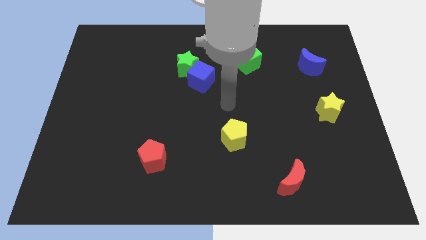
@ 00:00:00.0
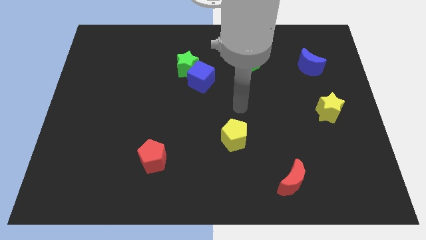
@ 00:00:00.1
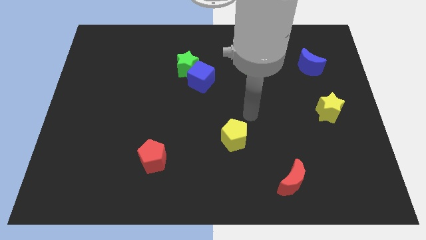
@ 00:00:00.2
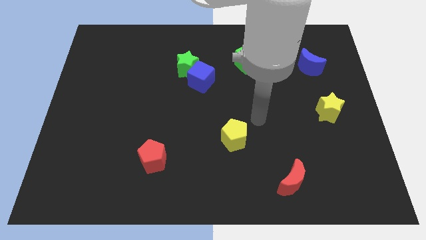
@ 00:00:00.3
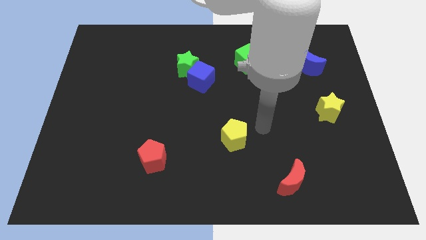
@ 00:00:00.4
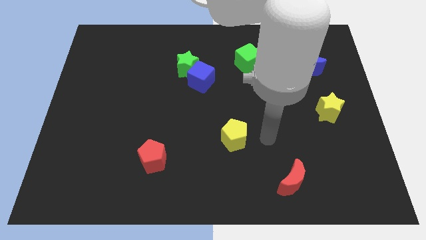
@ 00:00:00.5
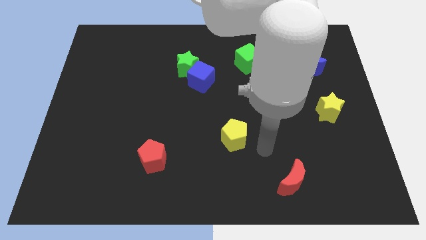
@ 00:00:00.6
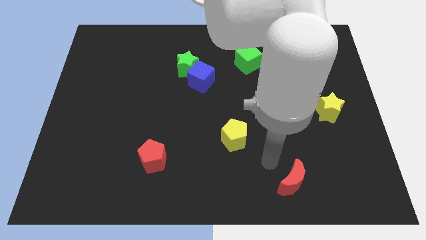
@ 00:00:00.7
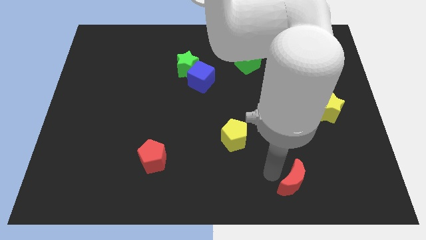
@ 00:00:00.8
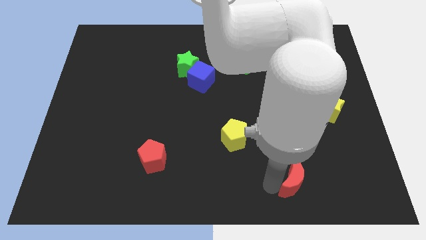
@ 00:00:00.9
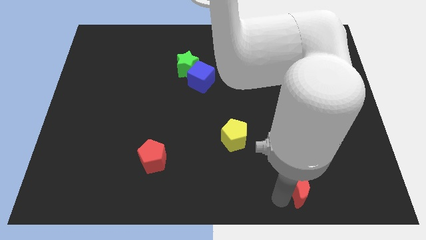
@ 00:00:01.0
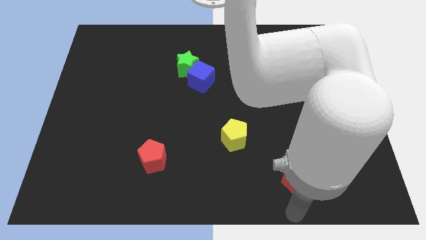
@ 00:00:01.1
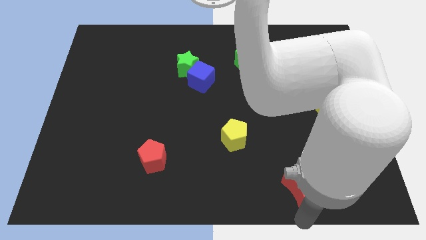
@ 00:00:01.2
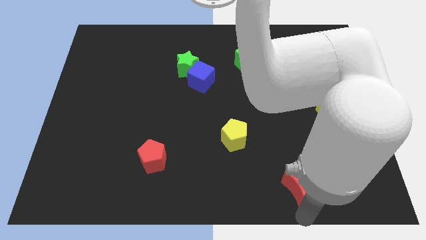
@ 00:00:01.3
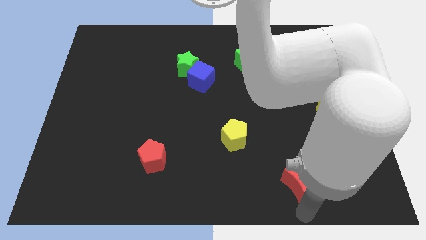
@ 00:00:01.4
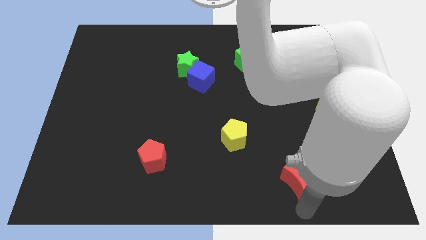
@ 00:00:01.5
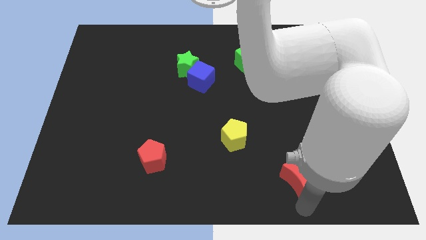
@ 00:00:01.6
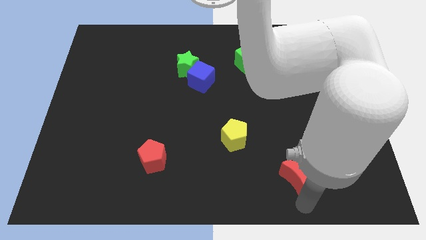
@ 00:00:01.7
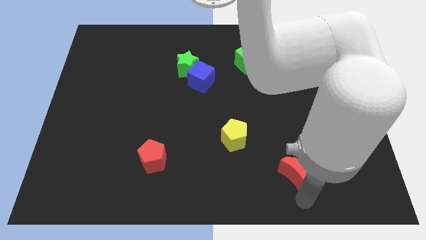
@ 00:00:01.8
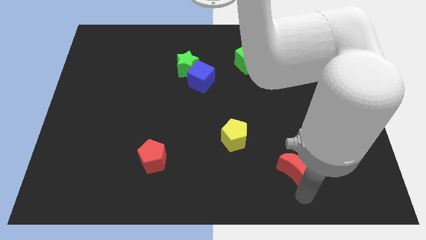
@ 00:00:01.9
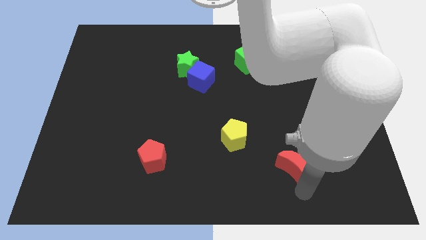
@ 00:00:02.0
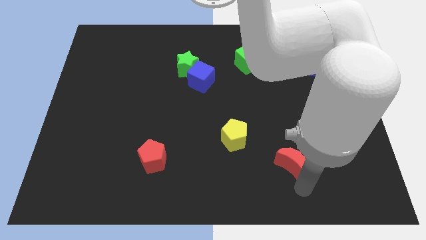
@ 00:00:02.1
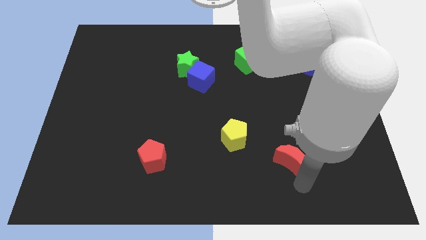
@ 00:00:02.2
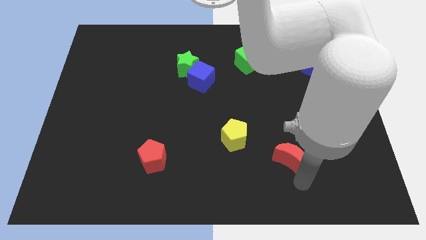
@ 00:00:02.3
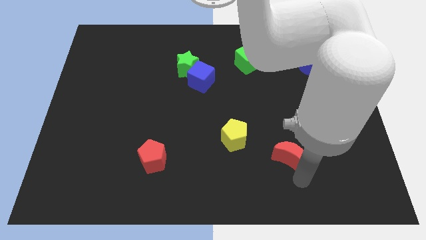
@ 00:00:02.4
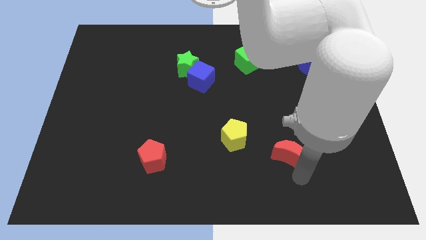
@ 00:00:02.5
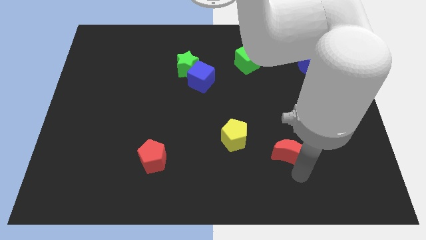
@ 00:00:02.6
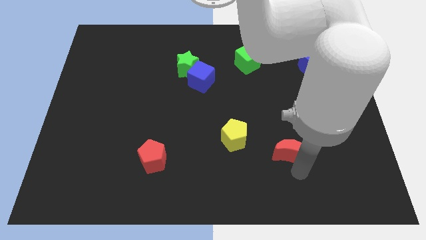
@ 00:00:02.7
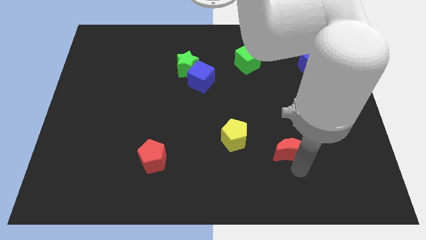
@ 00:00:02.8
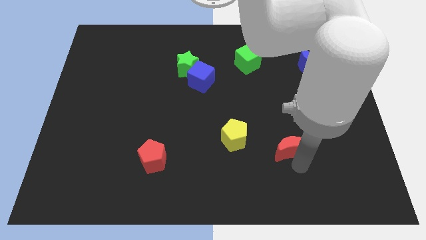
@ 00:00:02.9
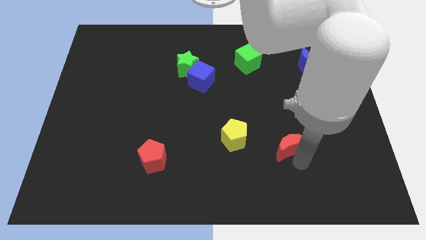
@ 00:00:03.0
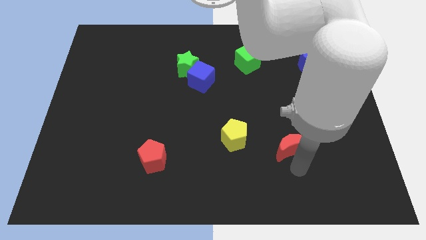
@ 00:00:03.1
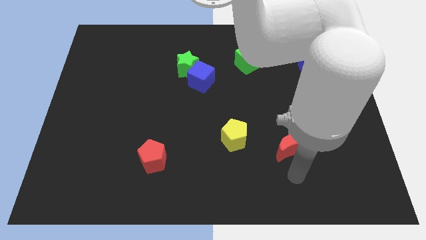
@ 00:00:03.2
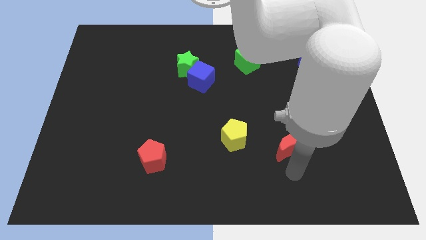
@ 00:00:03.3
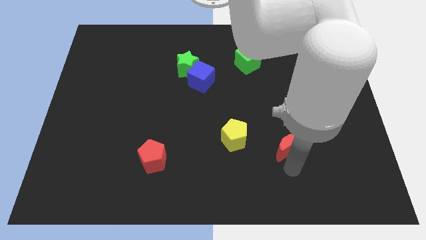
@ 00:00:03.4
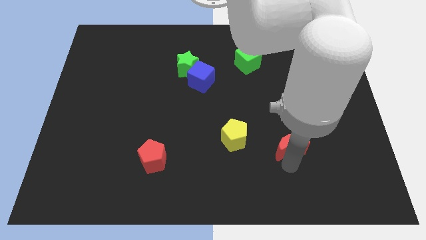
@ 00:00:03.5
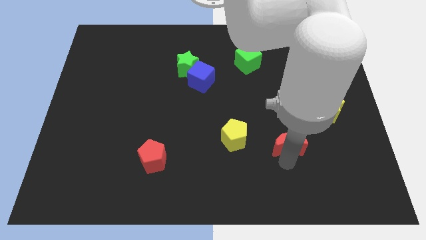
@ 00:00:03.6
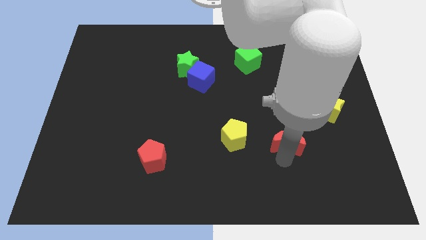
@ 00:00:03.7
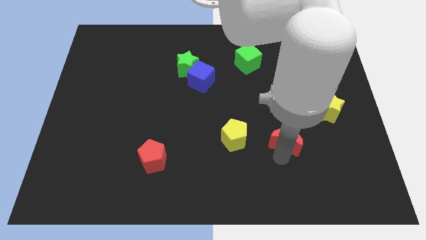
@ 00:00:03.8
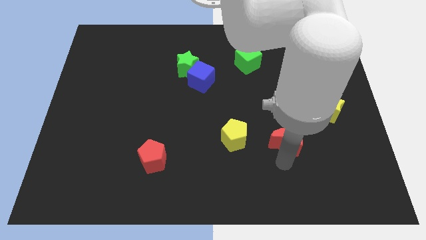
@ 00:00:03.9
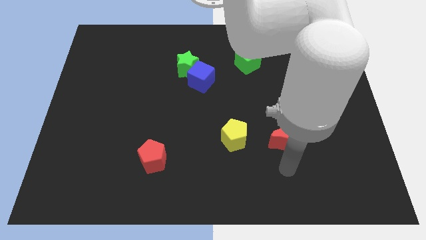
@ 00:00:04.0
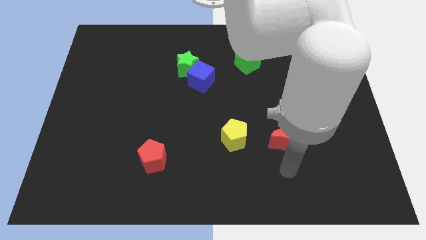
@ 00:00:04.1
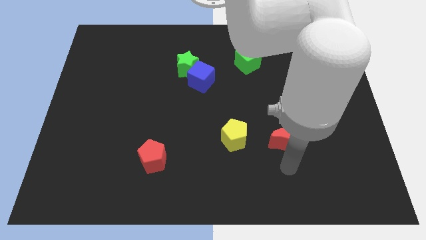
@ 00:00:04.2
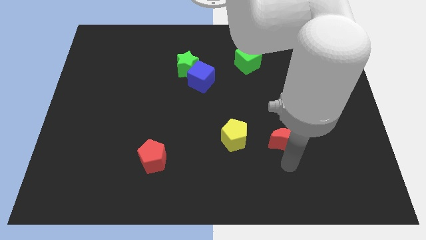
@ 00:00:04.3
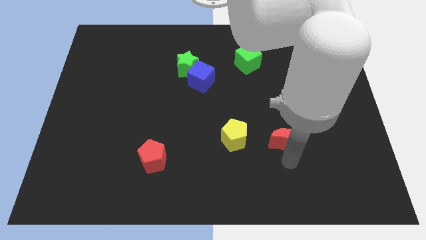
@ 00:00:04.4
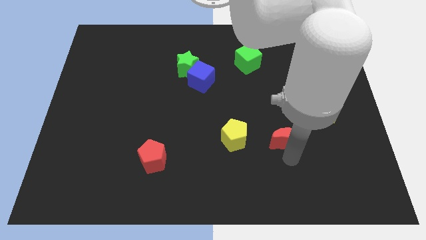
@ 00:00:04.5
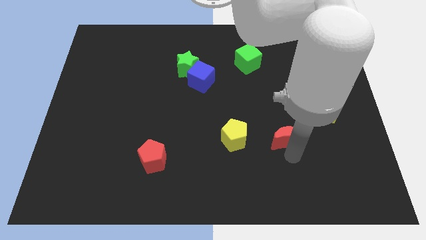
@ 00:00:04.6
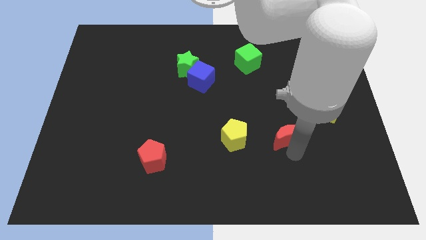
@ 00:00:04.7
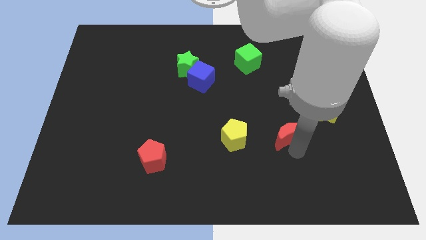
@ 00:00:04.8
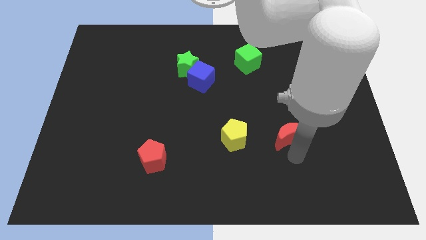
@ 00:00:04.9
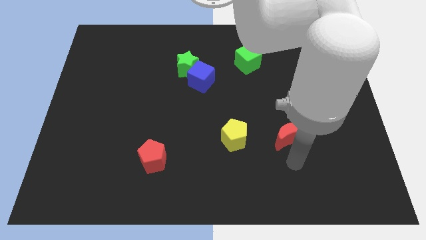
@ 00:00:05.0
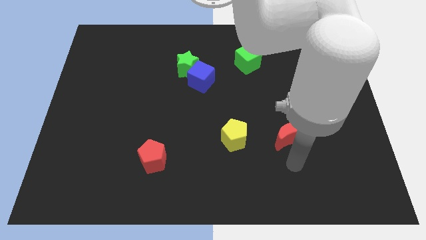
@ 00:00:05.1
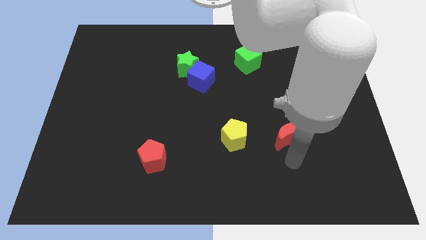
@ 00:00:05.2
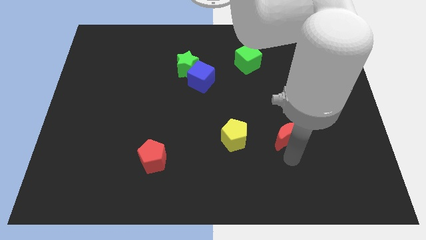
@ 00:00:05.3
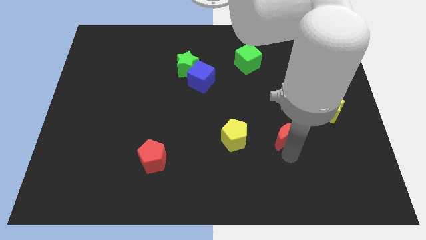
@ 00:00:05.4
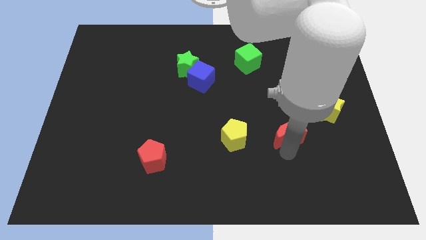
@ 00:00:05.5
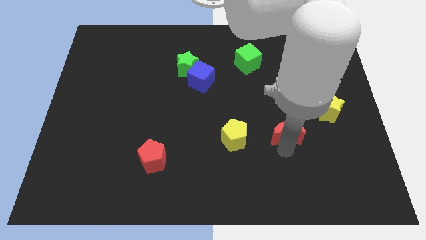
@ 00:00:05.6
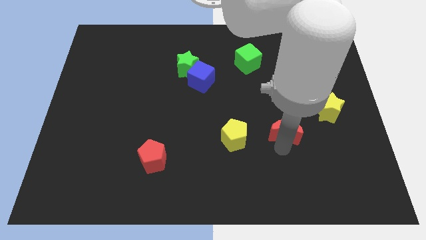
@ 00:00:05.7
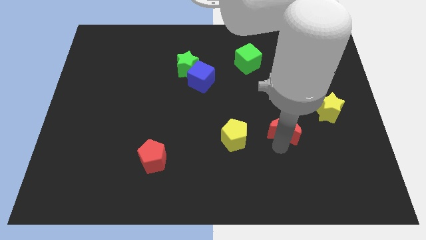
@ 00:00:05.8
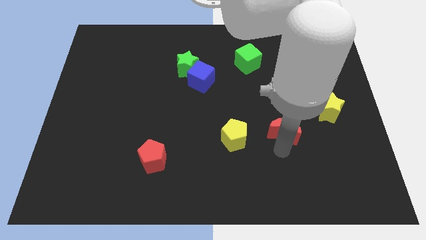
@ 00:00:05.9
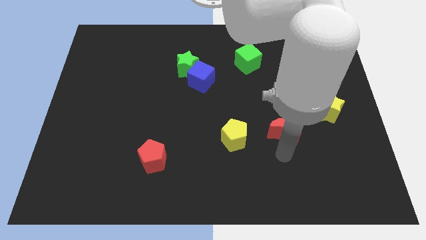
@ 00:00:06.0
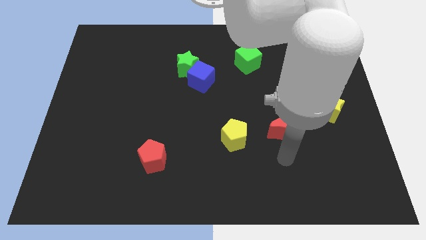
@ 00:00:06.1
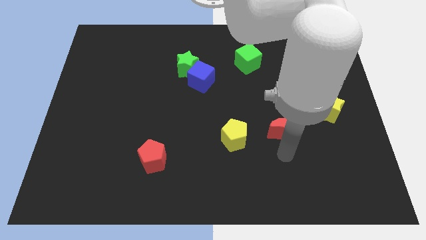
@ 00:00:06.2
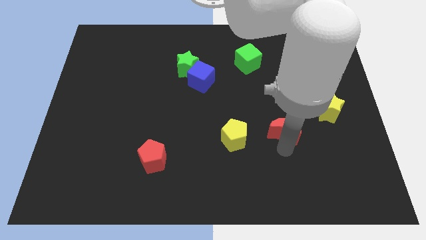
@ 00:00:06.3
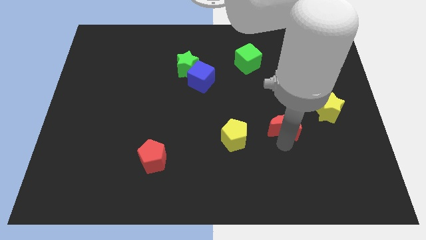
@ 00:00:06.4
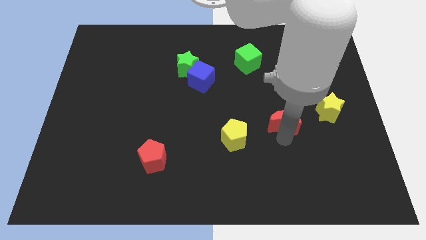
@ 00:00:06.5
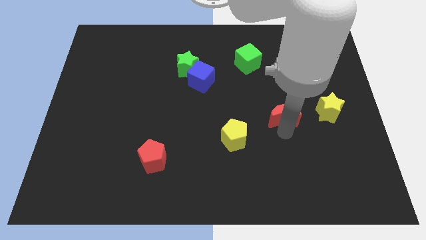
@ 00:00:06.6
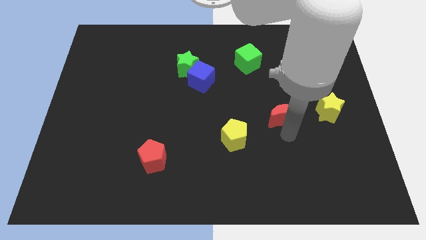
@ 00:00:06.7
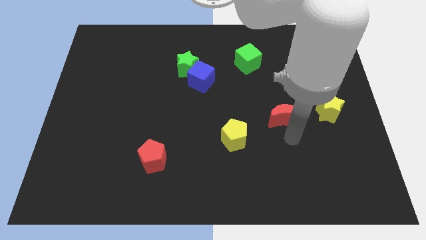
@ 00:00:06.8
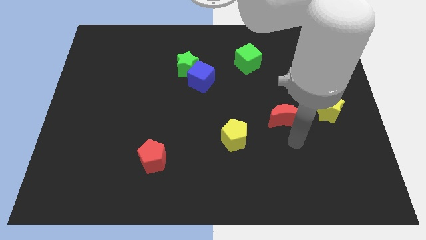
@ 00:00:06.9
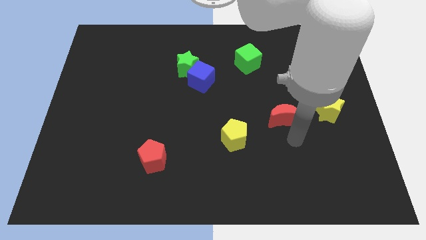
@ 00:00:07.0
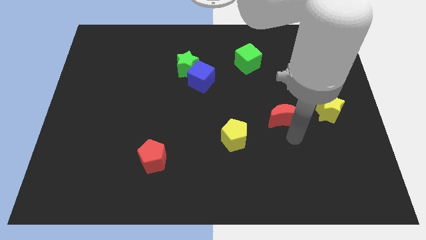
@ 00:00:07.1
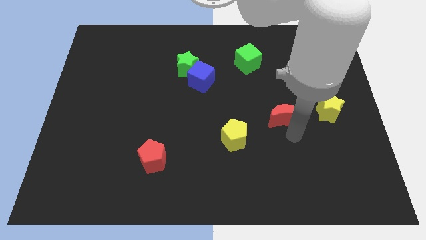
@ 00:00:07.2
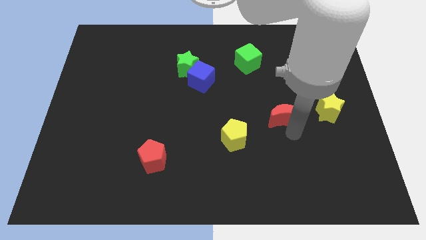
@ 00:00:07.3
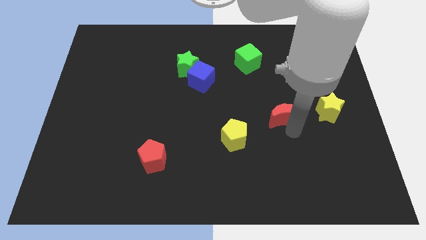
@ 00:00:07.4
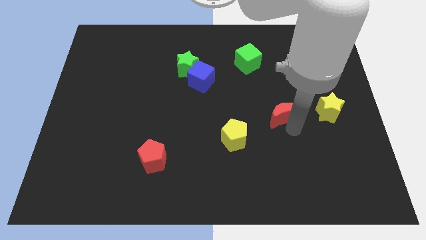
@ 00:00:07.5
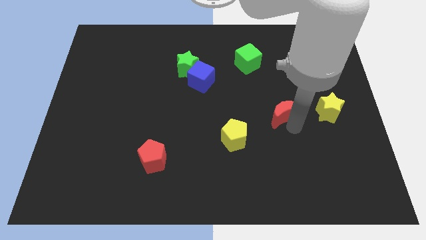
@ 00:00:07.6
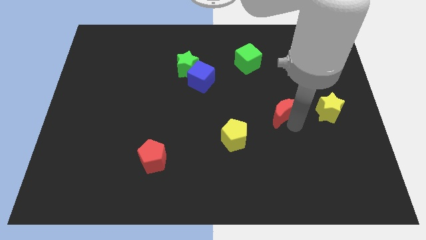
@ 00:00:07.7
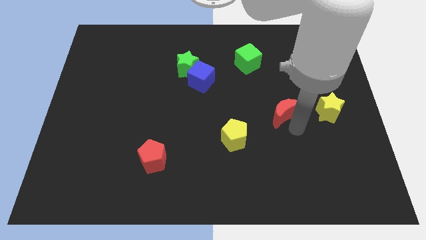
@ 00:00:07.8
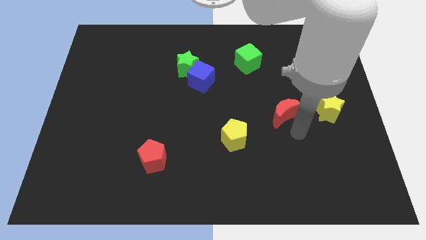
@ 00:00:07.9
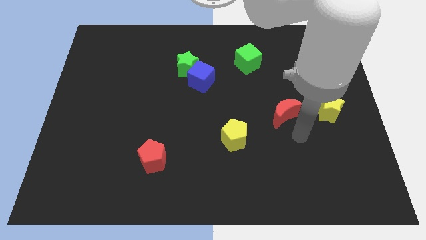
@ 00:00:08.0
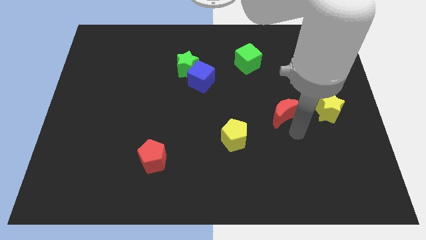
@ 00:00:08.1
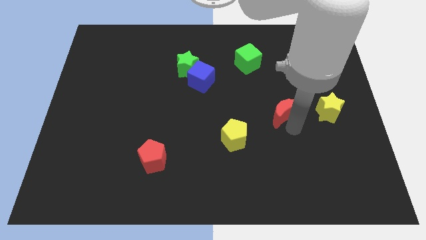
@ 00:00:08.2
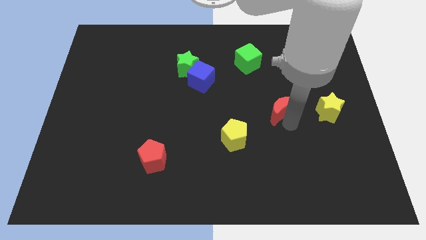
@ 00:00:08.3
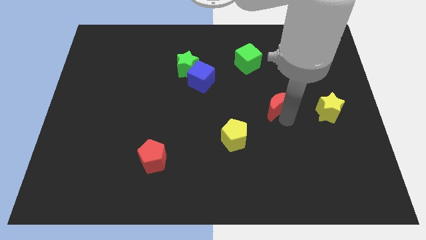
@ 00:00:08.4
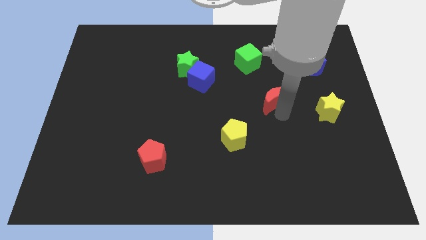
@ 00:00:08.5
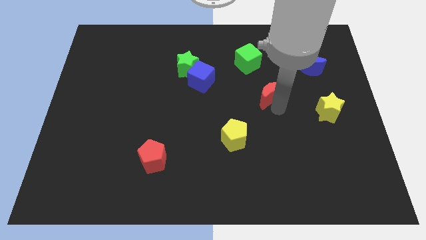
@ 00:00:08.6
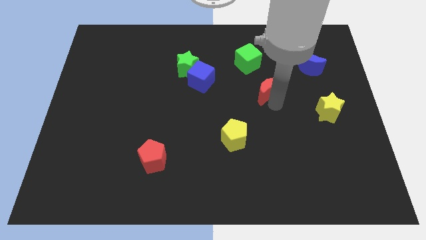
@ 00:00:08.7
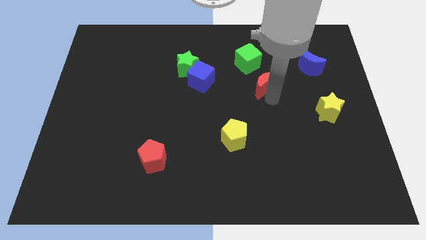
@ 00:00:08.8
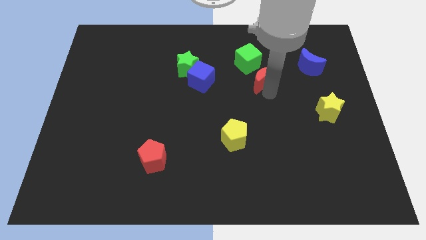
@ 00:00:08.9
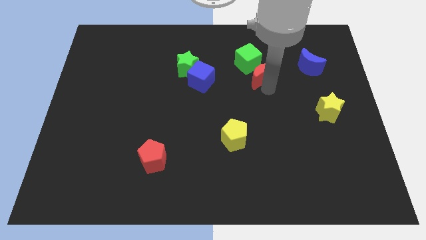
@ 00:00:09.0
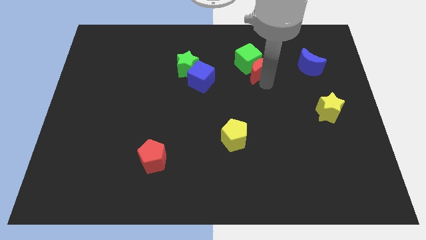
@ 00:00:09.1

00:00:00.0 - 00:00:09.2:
slide the red moon close to the green cube
